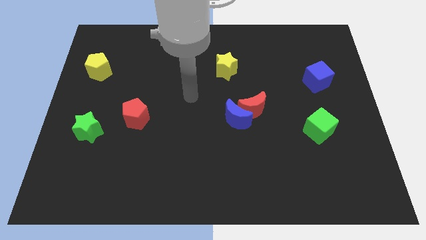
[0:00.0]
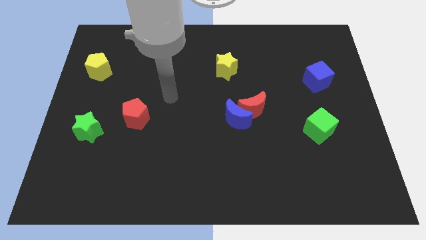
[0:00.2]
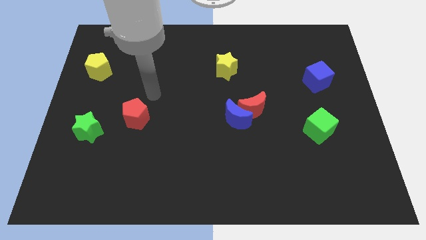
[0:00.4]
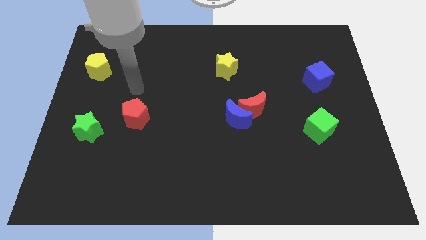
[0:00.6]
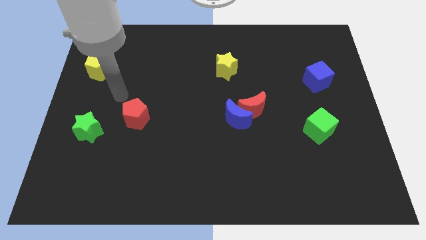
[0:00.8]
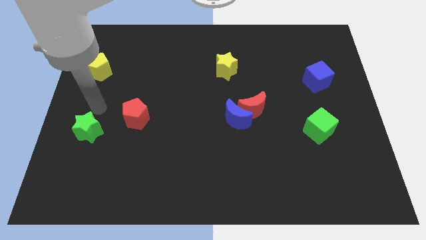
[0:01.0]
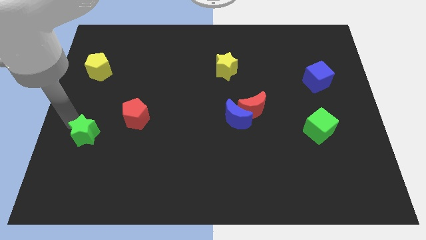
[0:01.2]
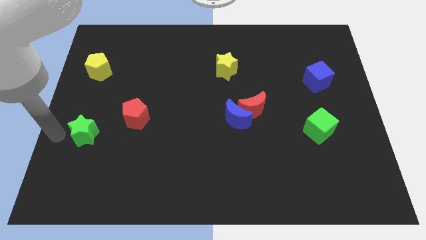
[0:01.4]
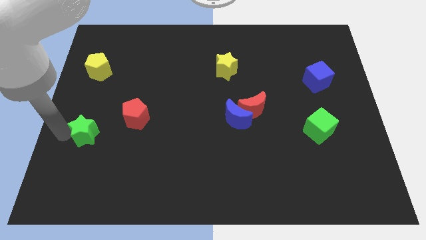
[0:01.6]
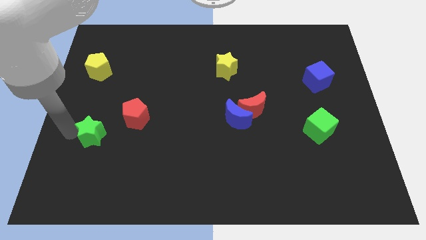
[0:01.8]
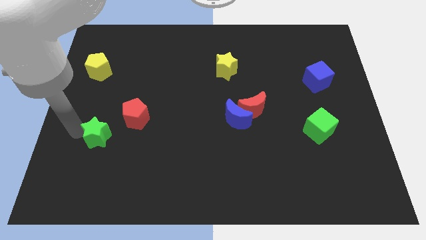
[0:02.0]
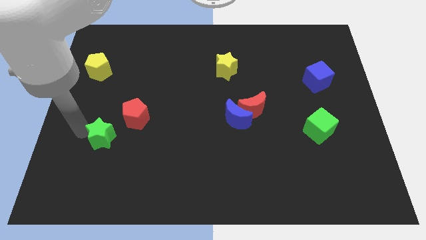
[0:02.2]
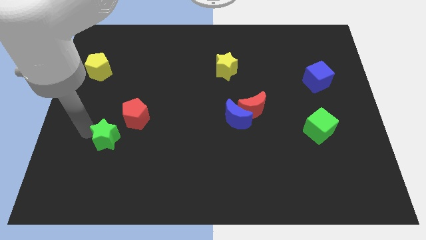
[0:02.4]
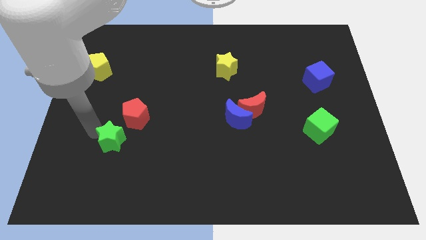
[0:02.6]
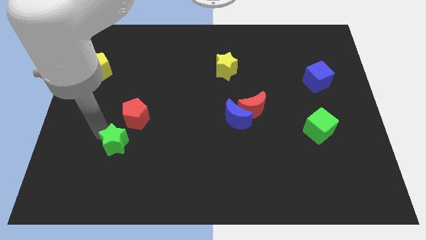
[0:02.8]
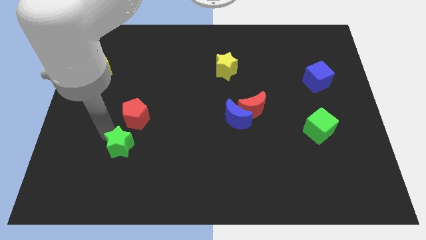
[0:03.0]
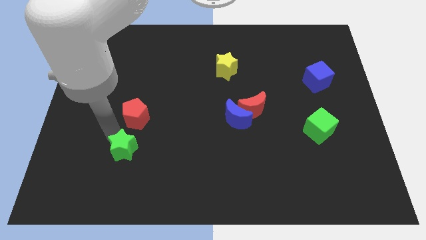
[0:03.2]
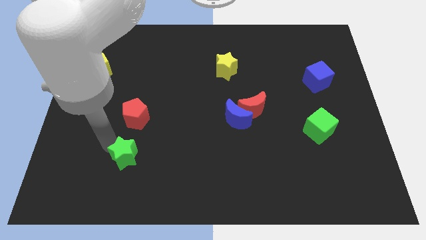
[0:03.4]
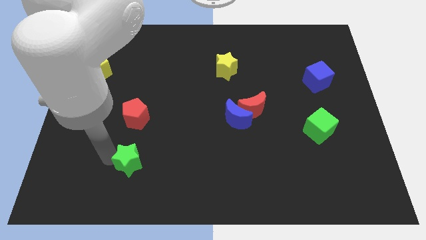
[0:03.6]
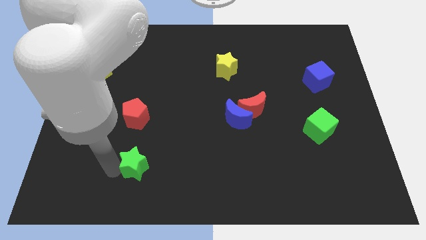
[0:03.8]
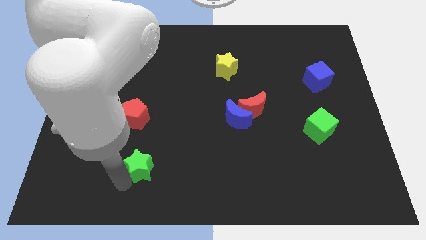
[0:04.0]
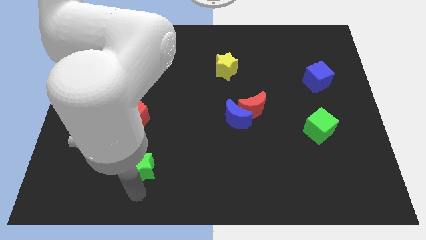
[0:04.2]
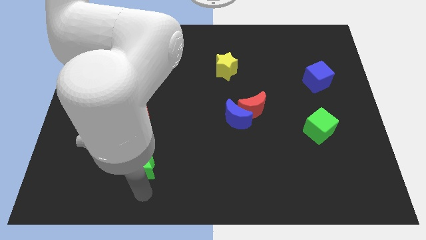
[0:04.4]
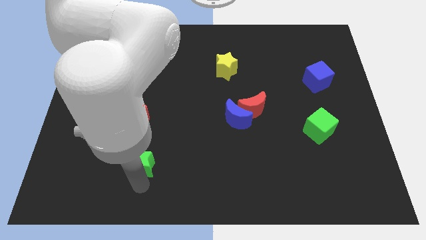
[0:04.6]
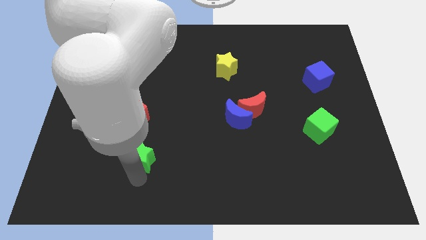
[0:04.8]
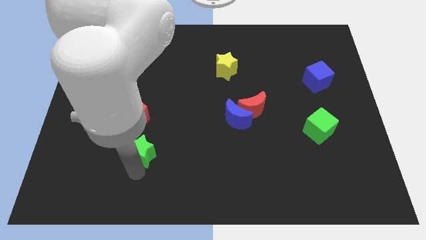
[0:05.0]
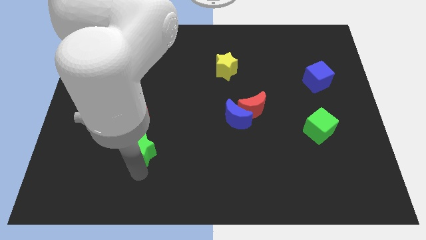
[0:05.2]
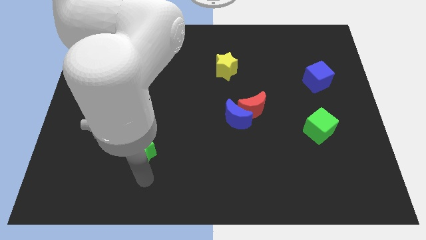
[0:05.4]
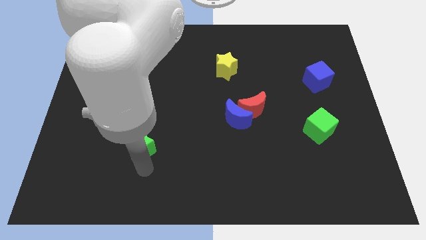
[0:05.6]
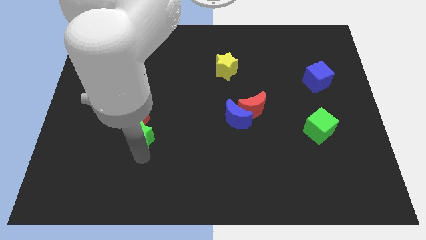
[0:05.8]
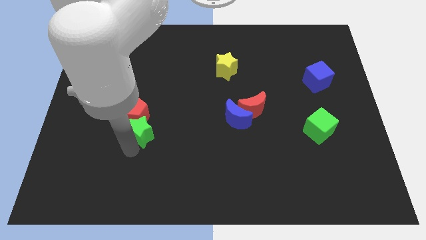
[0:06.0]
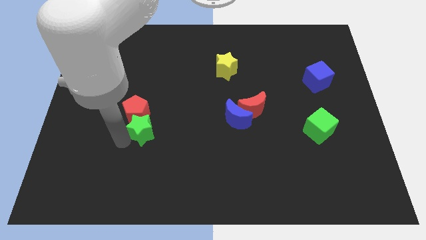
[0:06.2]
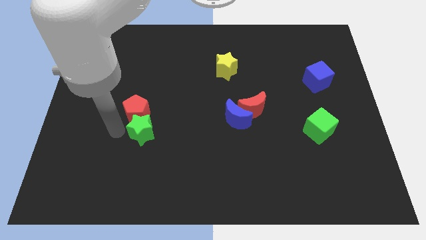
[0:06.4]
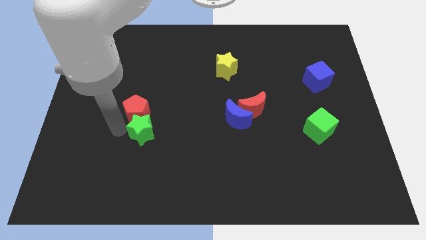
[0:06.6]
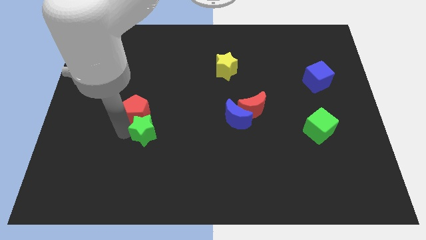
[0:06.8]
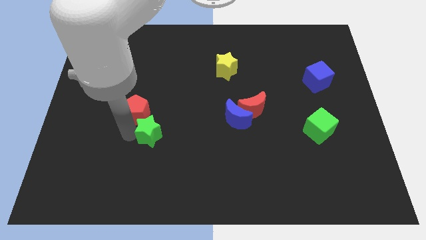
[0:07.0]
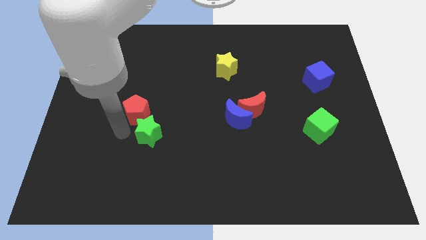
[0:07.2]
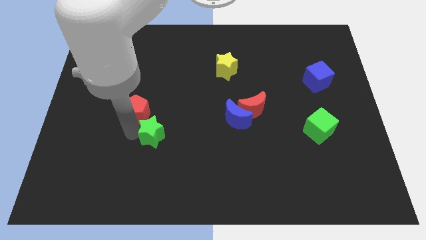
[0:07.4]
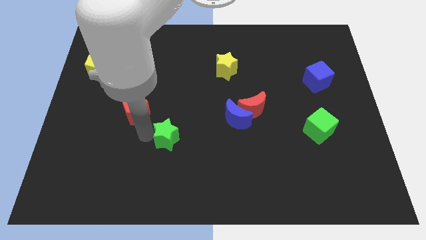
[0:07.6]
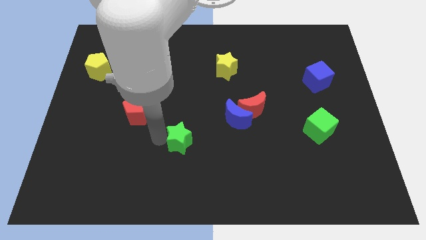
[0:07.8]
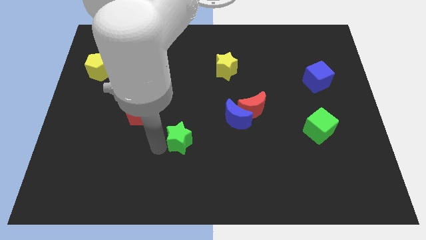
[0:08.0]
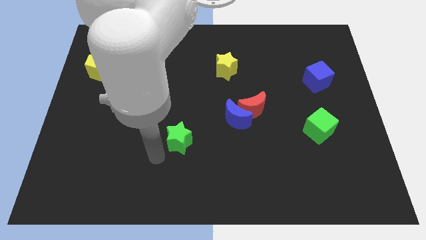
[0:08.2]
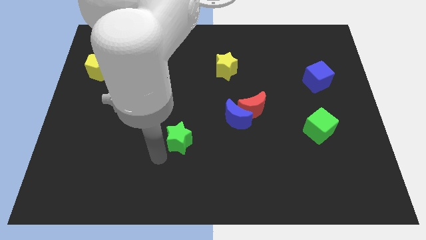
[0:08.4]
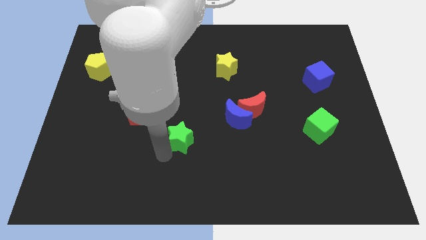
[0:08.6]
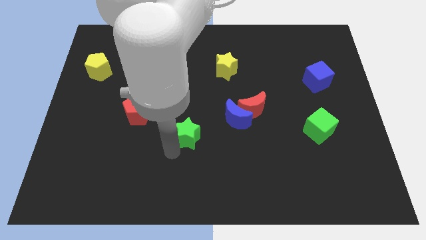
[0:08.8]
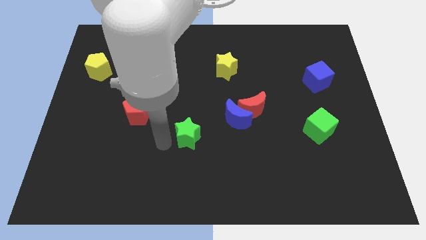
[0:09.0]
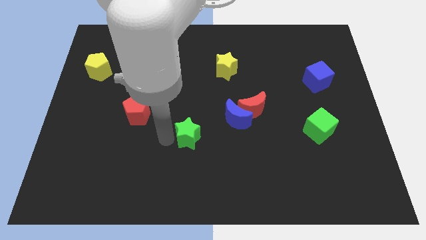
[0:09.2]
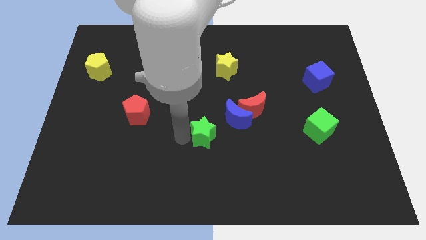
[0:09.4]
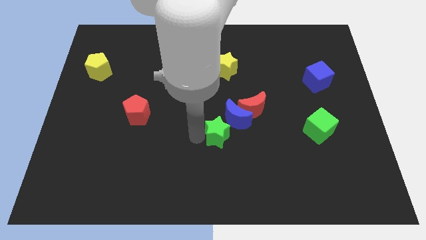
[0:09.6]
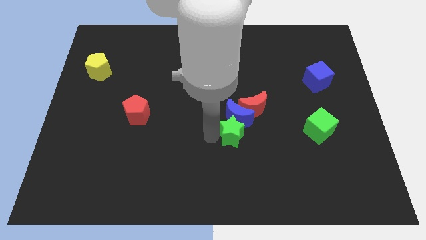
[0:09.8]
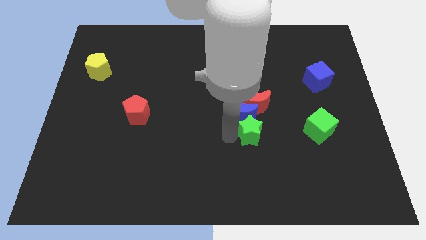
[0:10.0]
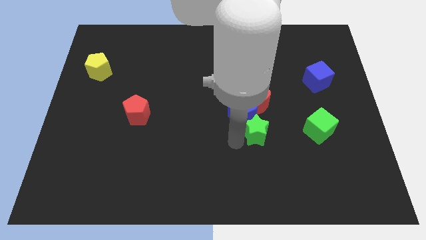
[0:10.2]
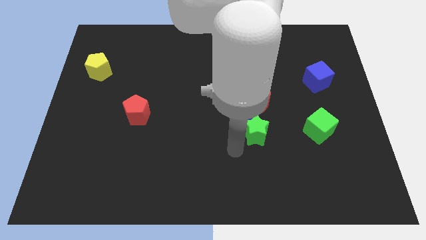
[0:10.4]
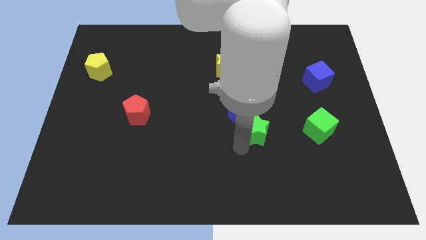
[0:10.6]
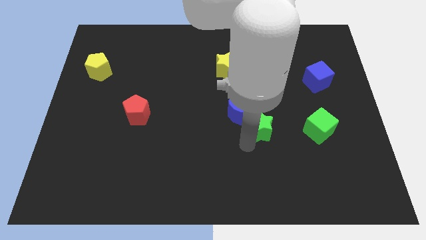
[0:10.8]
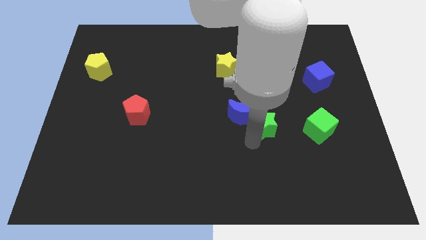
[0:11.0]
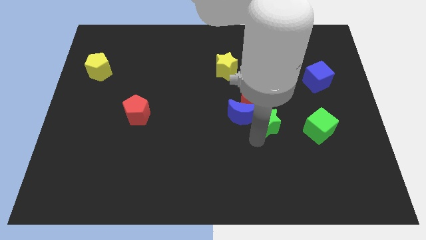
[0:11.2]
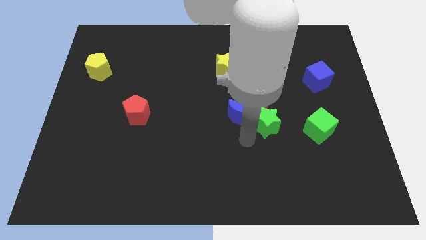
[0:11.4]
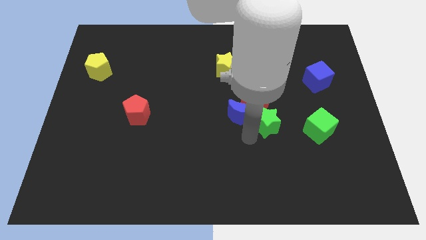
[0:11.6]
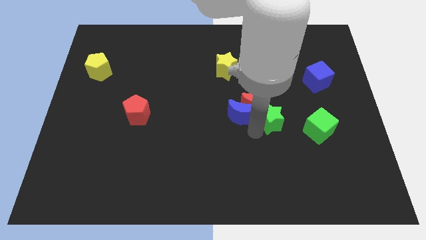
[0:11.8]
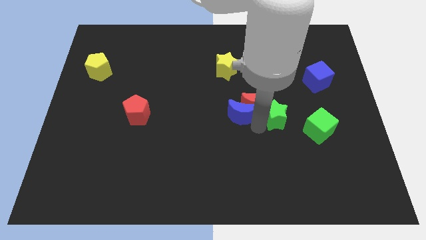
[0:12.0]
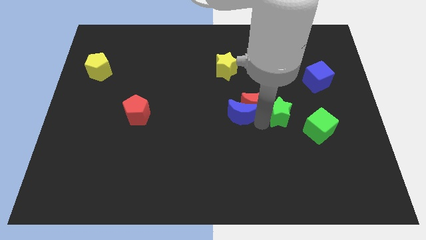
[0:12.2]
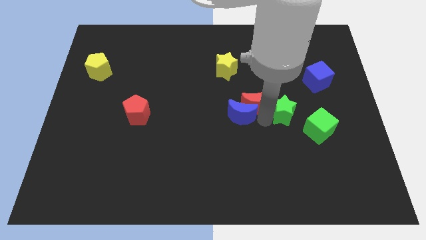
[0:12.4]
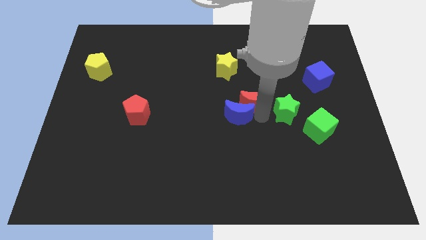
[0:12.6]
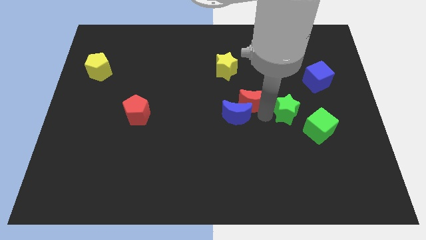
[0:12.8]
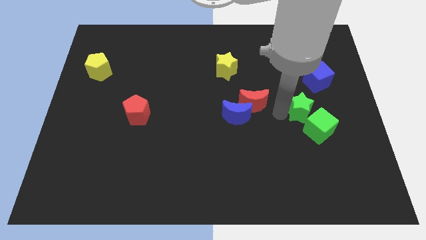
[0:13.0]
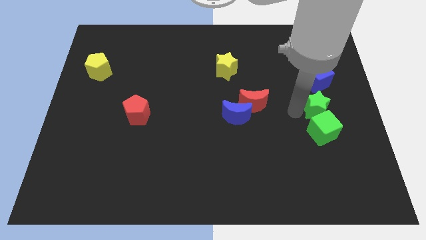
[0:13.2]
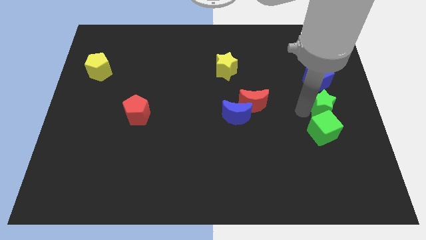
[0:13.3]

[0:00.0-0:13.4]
put the green star to the right side

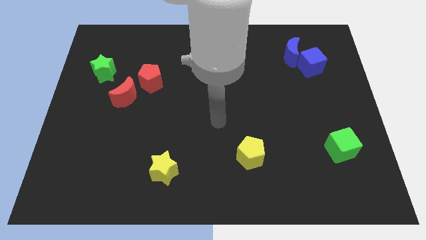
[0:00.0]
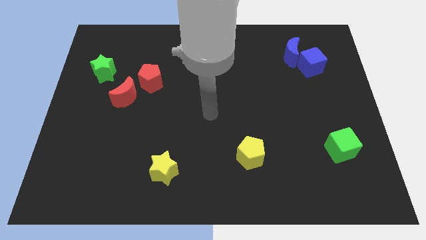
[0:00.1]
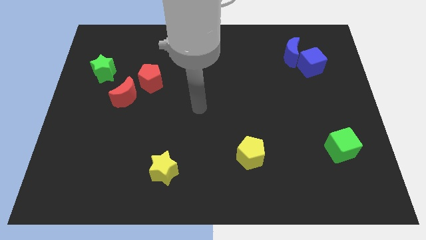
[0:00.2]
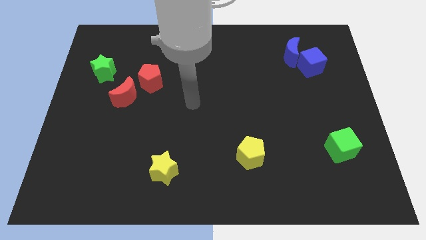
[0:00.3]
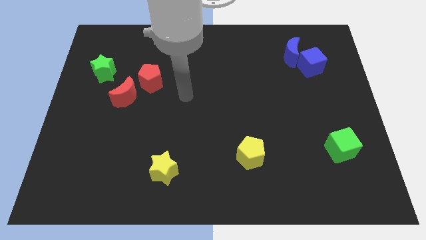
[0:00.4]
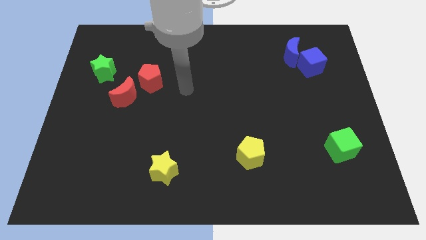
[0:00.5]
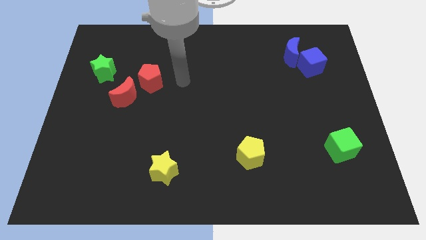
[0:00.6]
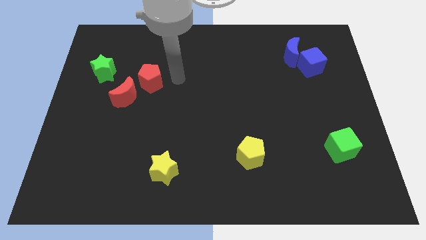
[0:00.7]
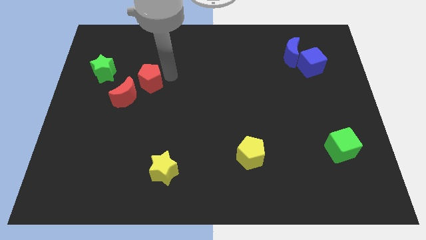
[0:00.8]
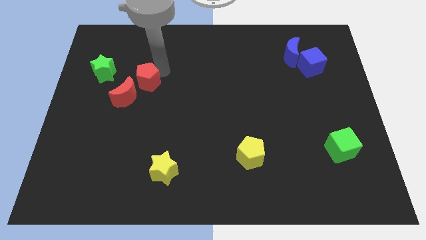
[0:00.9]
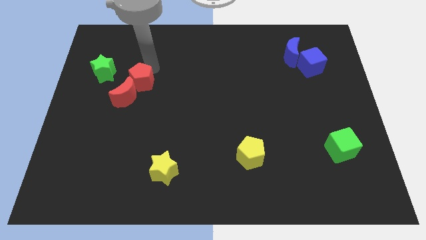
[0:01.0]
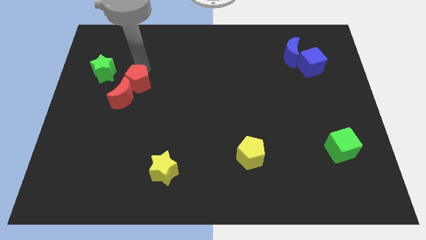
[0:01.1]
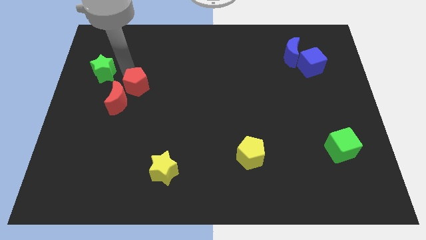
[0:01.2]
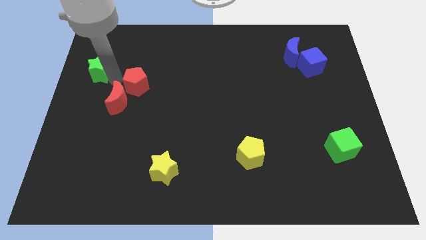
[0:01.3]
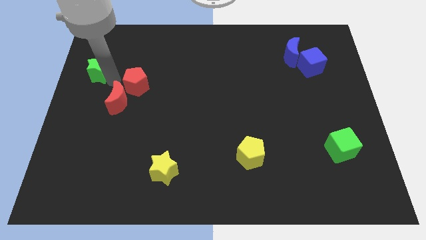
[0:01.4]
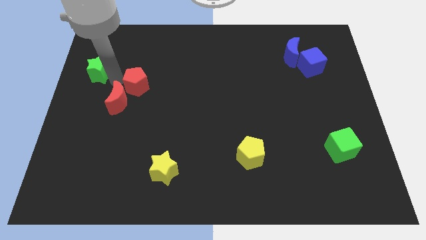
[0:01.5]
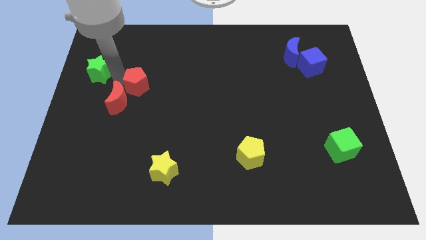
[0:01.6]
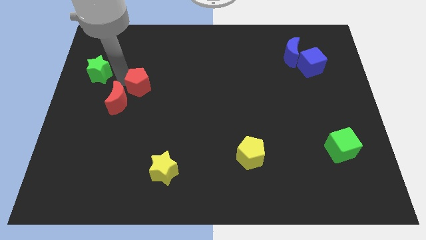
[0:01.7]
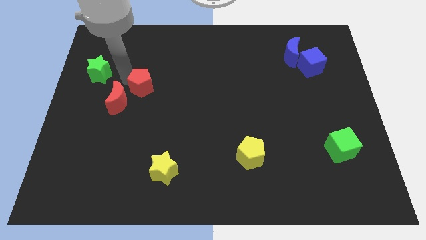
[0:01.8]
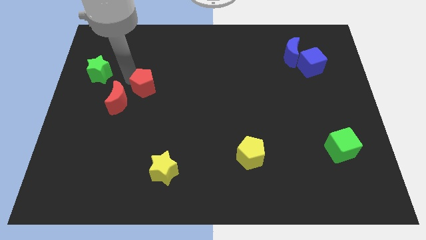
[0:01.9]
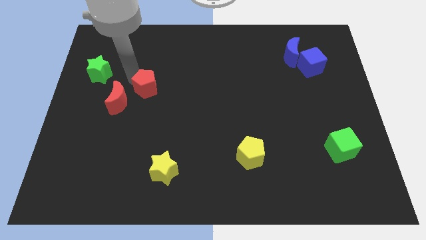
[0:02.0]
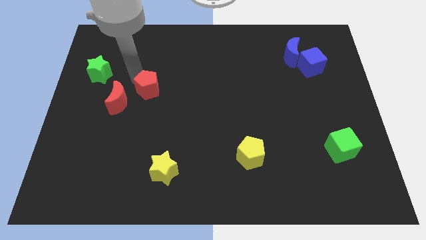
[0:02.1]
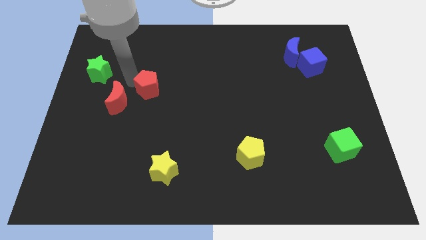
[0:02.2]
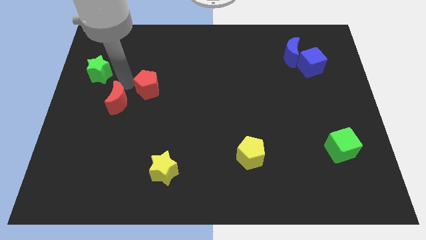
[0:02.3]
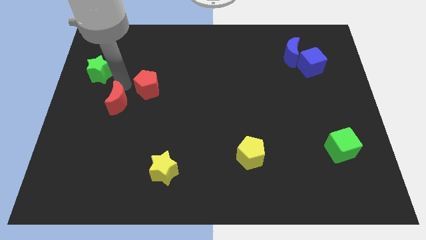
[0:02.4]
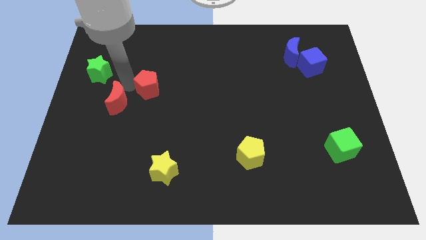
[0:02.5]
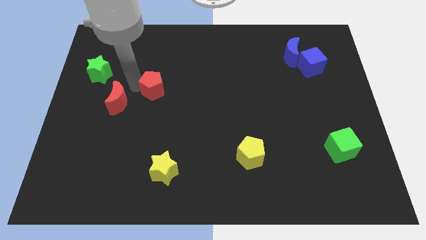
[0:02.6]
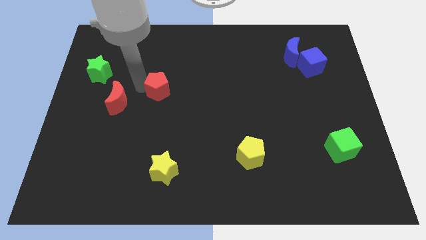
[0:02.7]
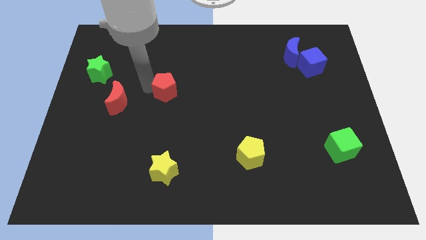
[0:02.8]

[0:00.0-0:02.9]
slide the red pentagon to the center
